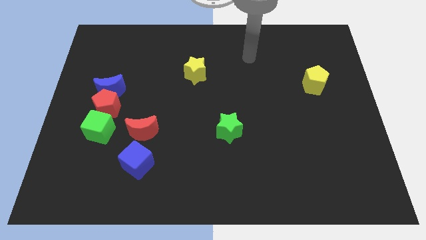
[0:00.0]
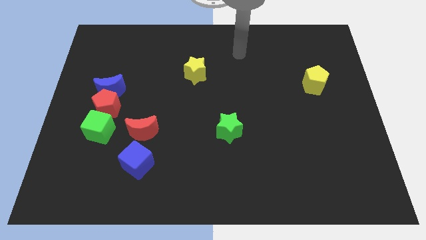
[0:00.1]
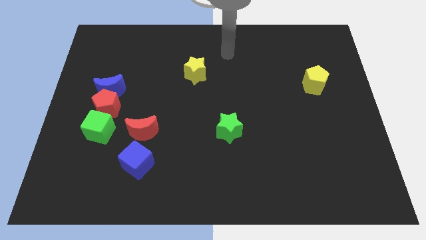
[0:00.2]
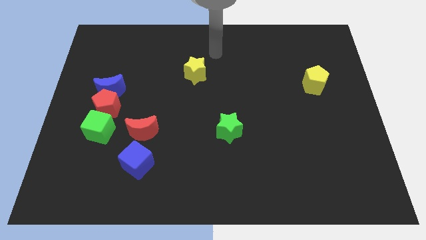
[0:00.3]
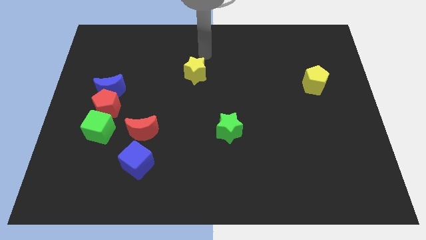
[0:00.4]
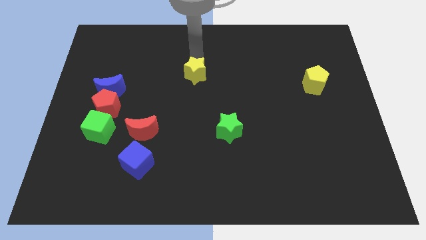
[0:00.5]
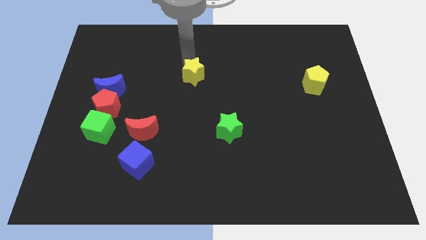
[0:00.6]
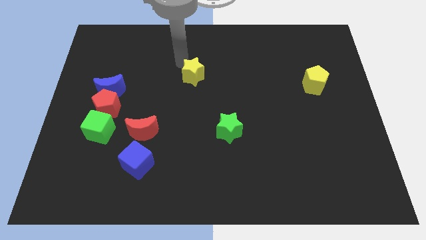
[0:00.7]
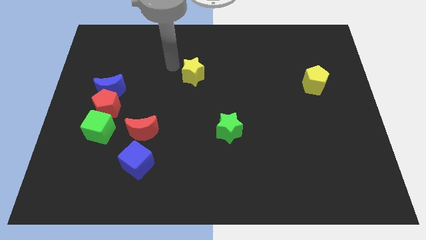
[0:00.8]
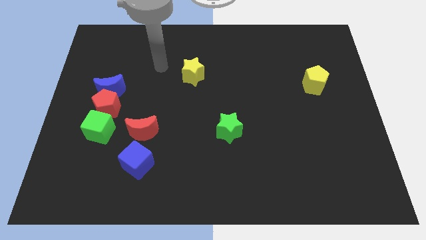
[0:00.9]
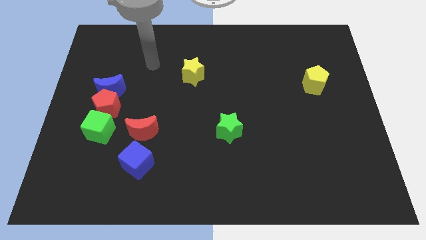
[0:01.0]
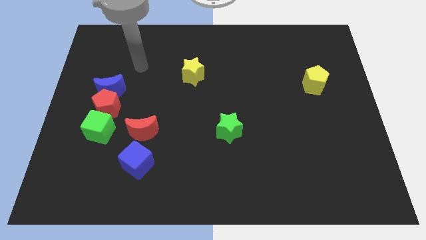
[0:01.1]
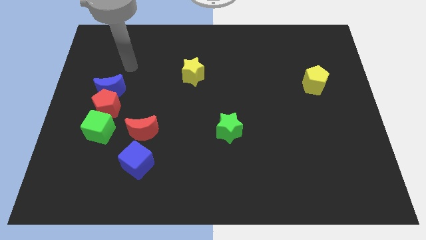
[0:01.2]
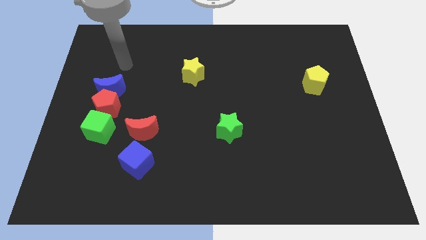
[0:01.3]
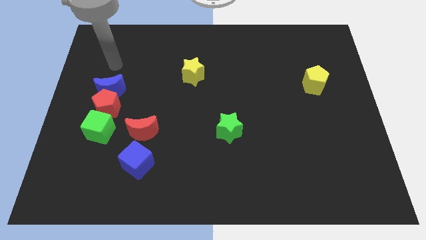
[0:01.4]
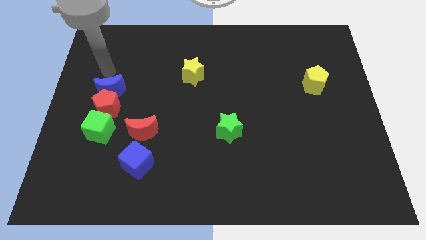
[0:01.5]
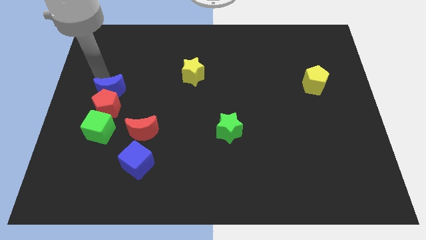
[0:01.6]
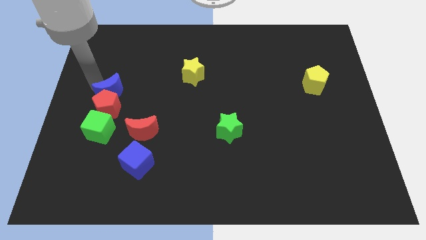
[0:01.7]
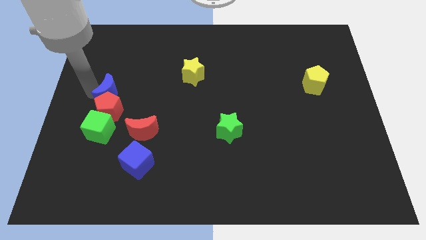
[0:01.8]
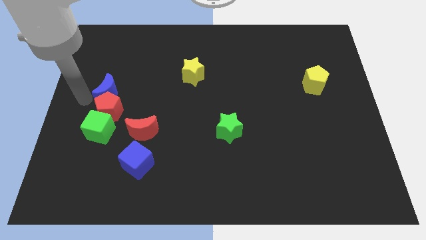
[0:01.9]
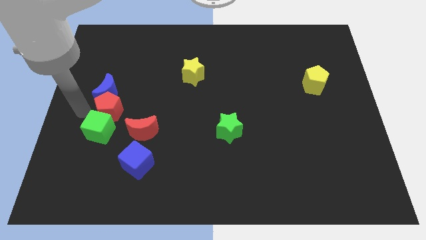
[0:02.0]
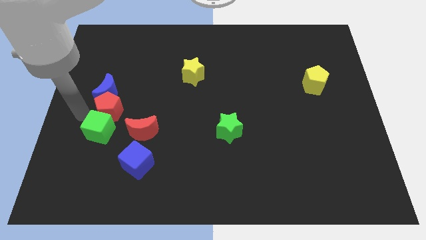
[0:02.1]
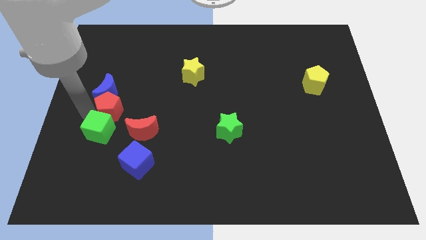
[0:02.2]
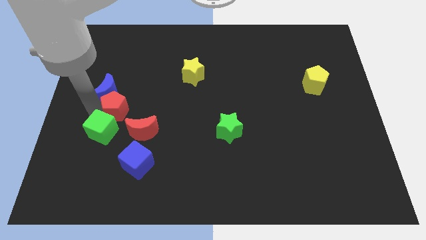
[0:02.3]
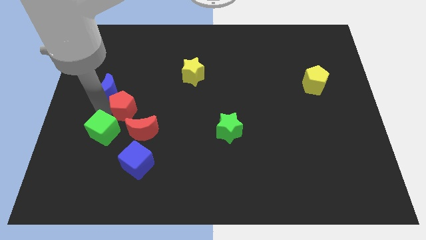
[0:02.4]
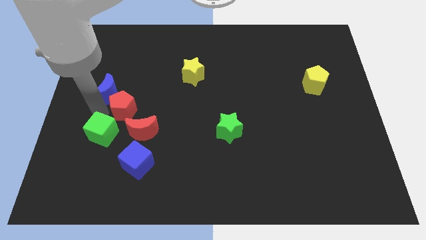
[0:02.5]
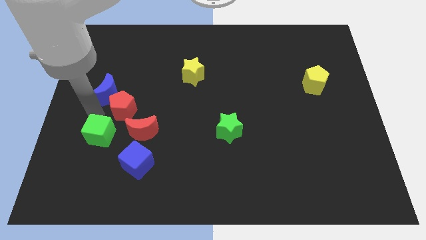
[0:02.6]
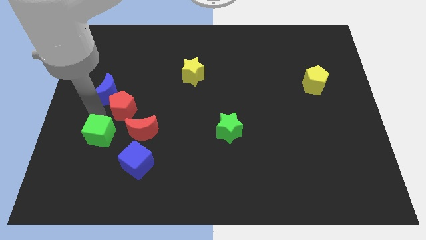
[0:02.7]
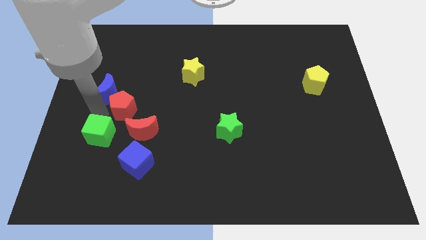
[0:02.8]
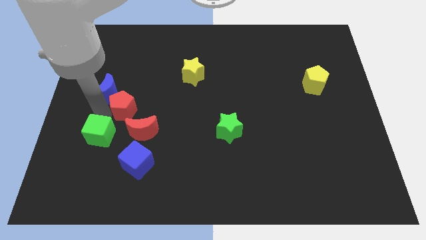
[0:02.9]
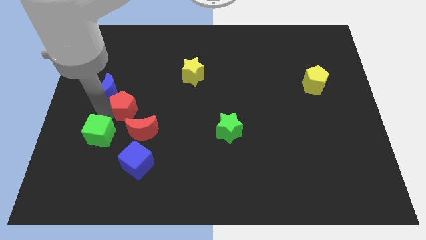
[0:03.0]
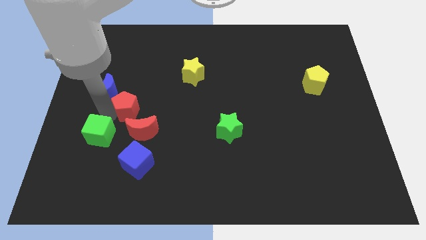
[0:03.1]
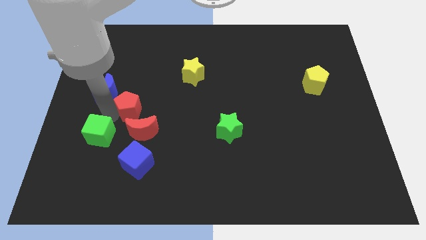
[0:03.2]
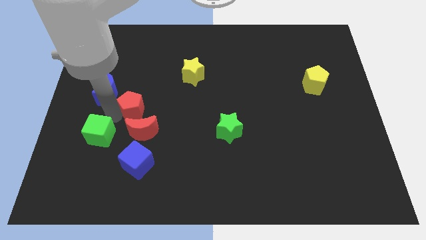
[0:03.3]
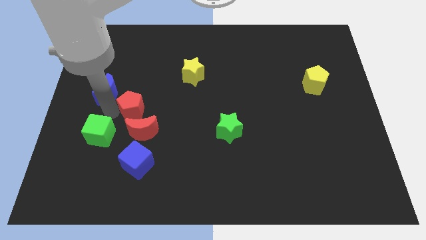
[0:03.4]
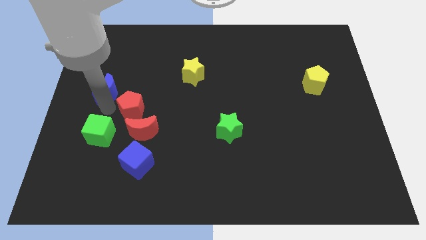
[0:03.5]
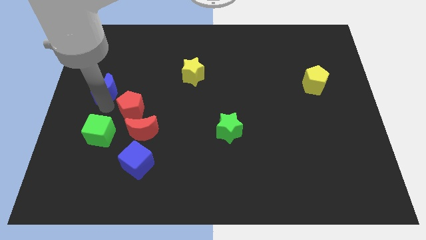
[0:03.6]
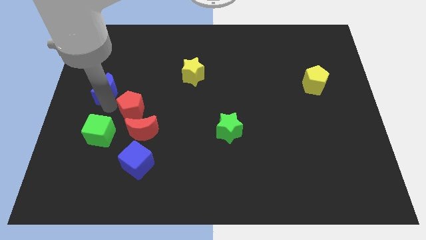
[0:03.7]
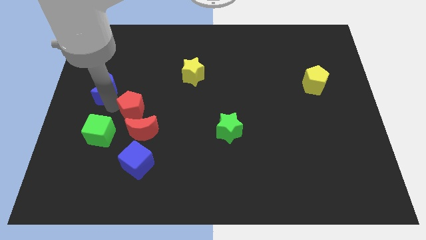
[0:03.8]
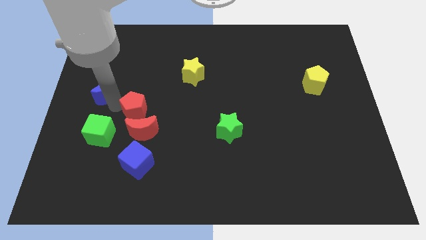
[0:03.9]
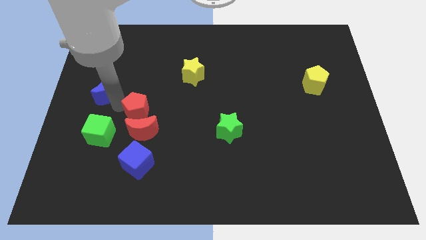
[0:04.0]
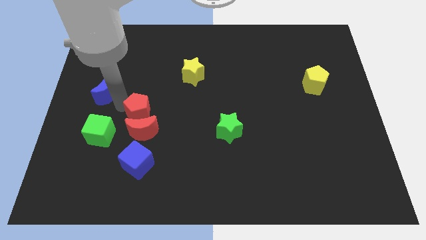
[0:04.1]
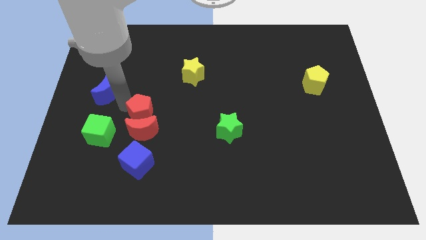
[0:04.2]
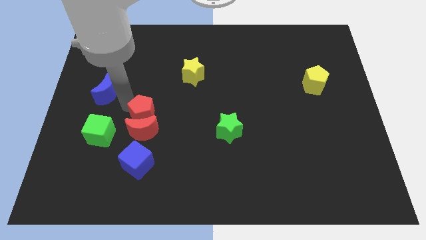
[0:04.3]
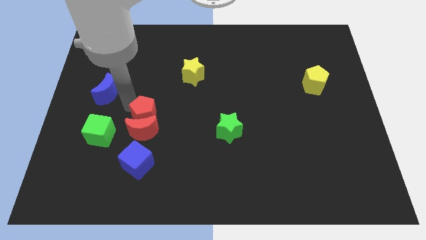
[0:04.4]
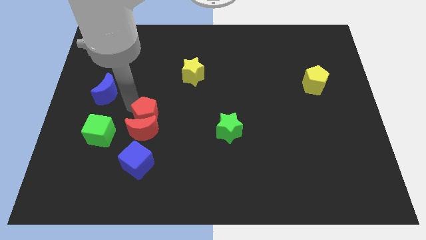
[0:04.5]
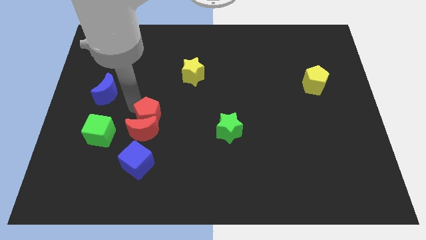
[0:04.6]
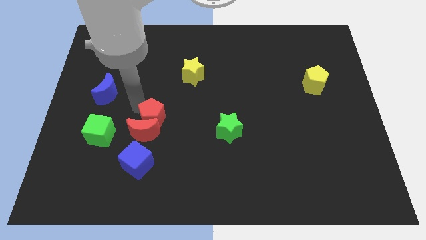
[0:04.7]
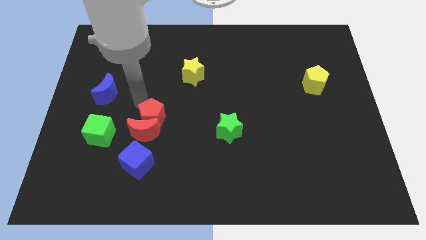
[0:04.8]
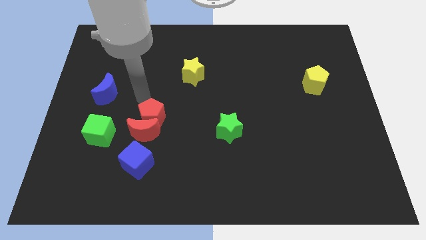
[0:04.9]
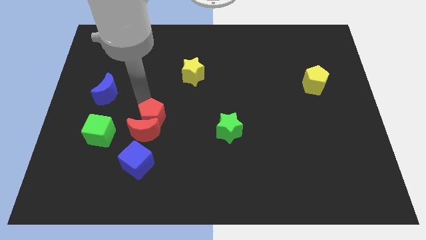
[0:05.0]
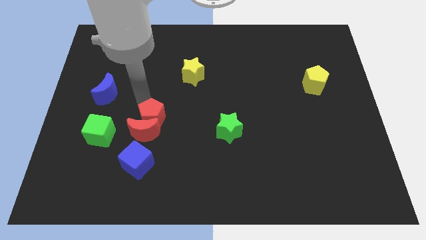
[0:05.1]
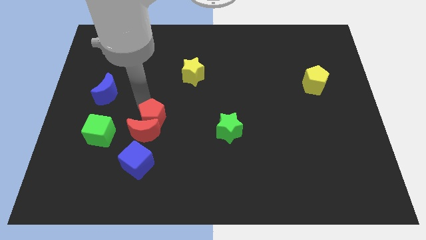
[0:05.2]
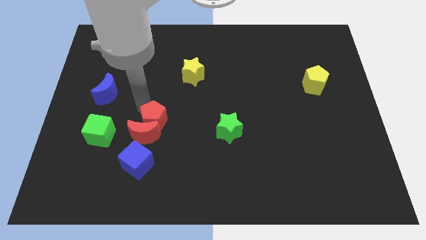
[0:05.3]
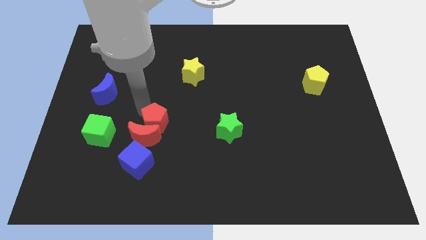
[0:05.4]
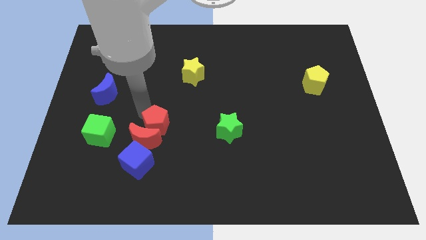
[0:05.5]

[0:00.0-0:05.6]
slide the red pentagon diagonally up and to the right of the blue cube

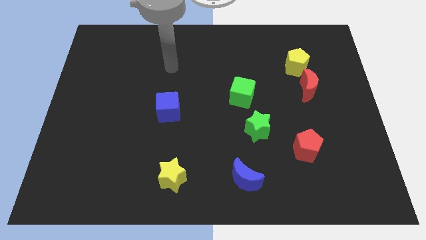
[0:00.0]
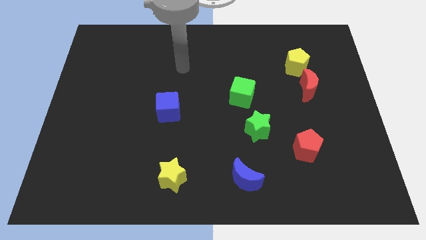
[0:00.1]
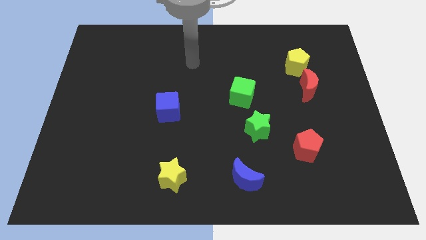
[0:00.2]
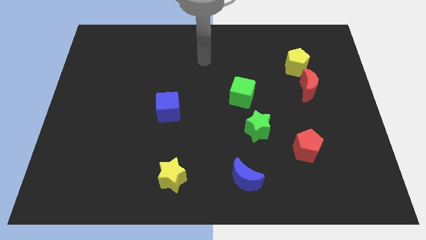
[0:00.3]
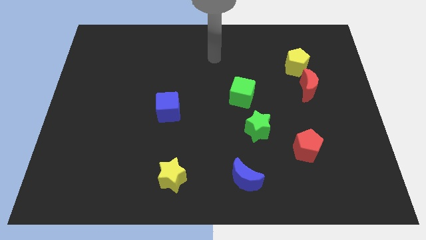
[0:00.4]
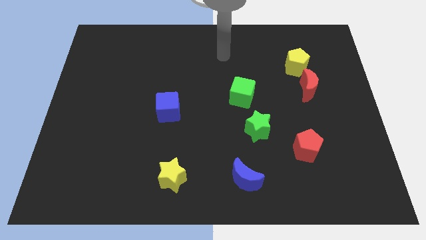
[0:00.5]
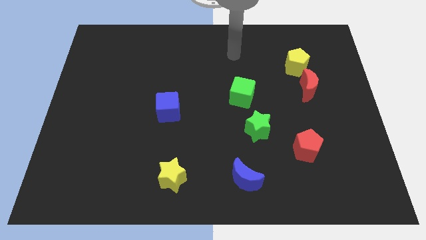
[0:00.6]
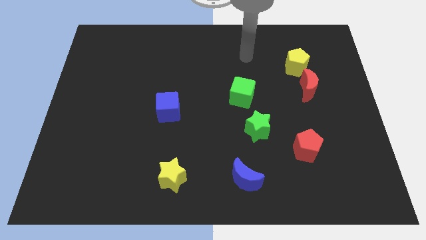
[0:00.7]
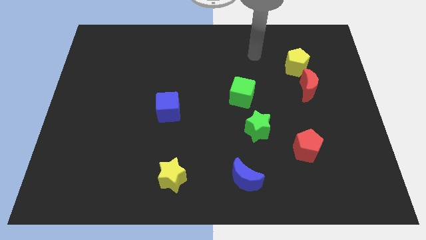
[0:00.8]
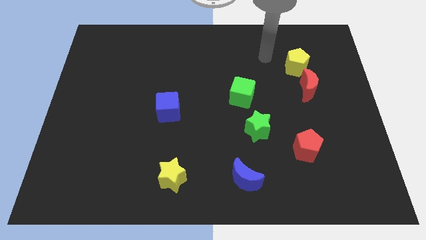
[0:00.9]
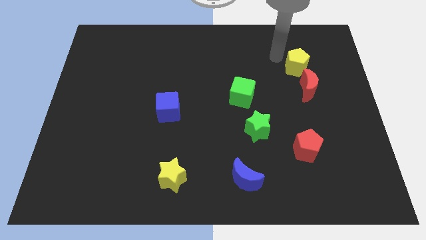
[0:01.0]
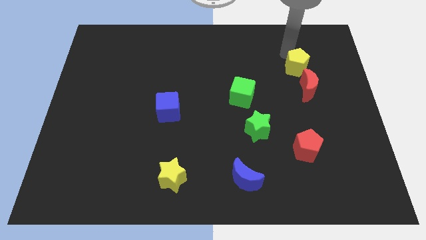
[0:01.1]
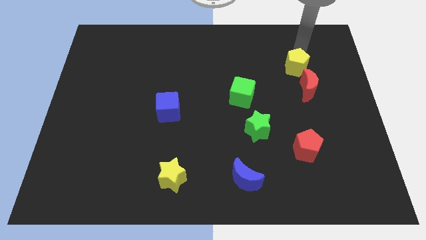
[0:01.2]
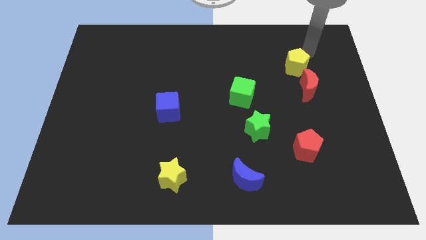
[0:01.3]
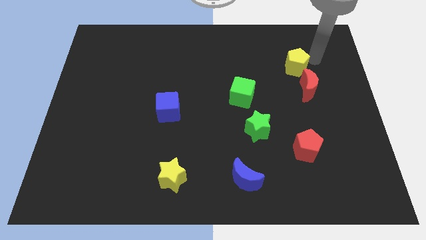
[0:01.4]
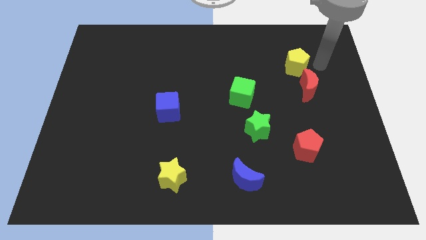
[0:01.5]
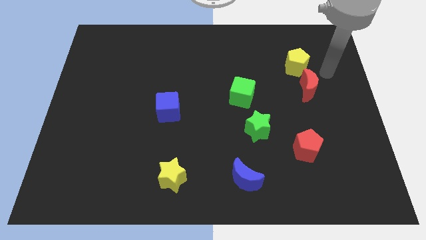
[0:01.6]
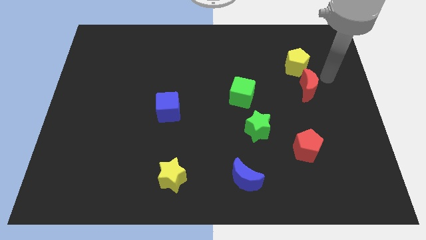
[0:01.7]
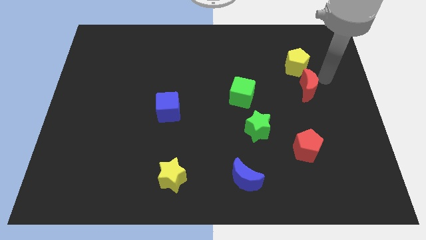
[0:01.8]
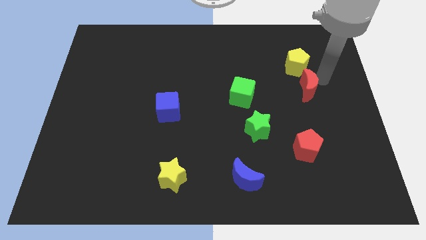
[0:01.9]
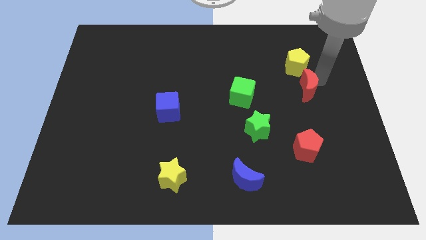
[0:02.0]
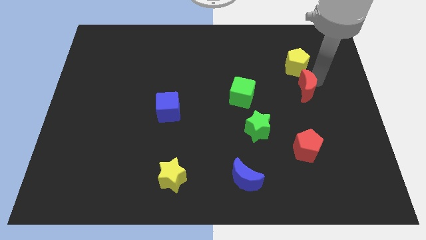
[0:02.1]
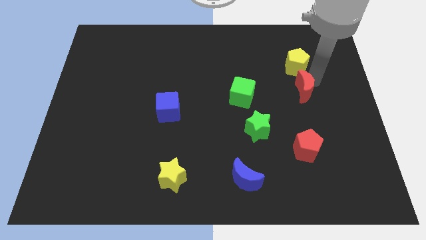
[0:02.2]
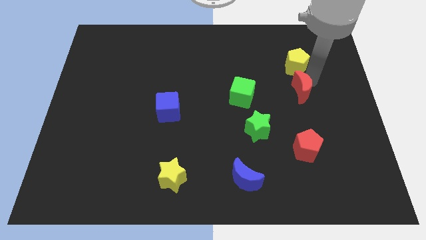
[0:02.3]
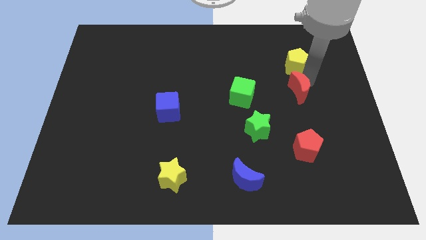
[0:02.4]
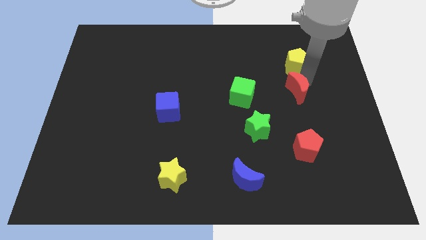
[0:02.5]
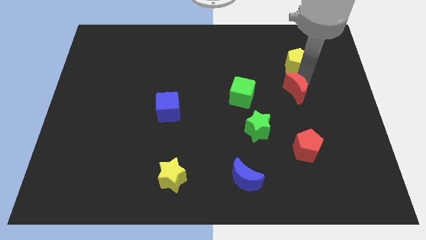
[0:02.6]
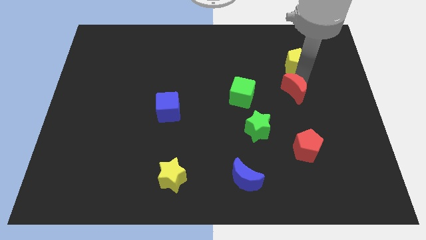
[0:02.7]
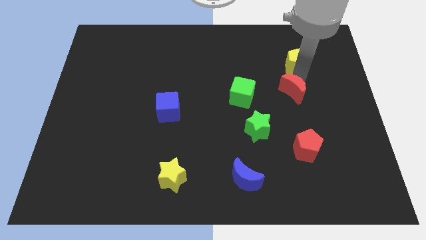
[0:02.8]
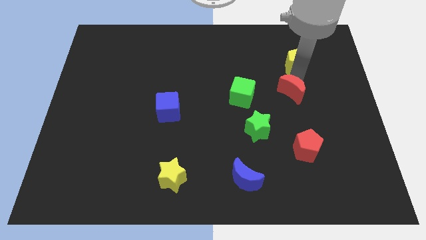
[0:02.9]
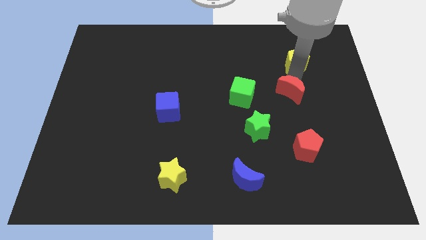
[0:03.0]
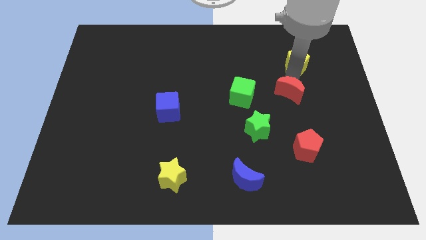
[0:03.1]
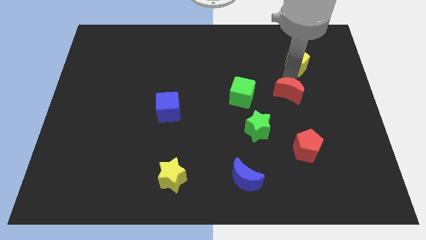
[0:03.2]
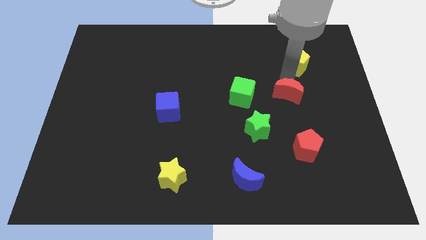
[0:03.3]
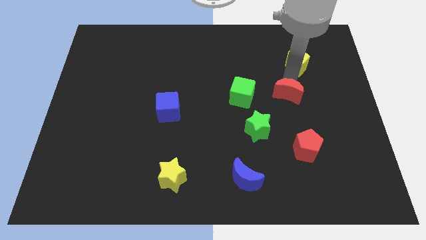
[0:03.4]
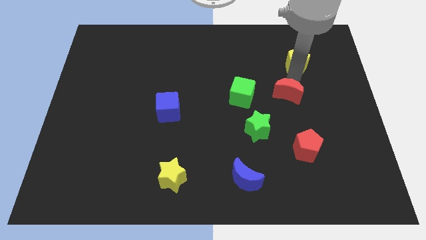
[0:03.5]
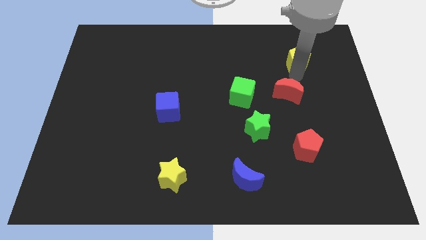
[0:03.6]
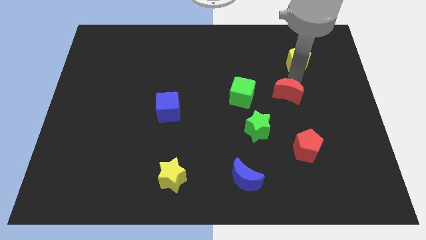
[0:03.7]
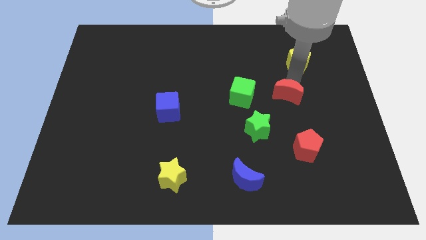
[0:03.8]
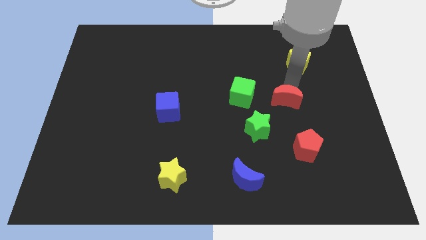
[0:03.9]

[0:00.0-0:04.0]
move the red moon diagonally up and to the right of the green star
